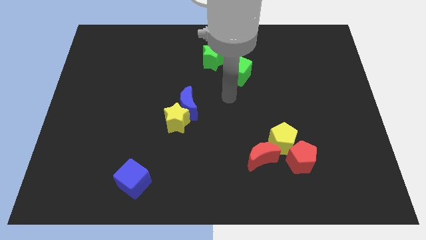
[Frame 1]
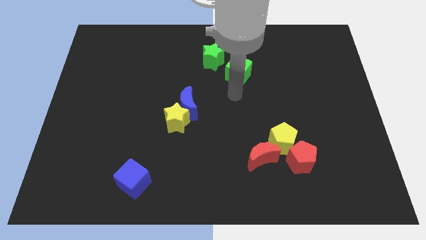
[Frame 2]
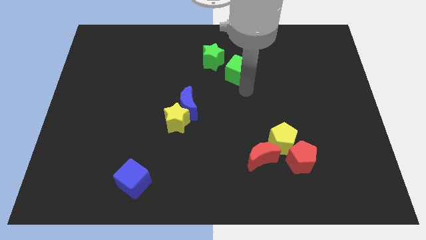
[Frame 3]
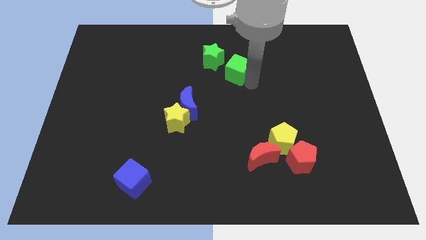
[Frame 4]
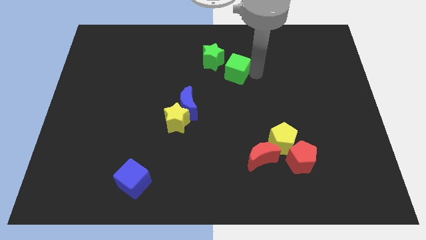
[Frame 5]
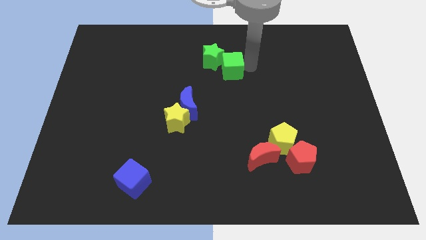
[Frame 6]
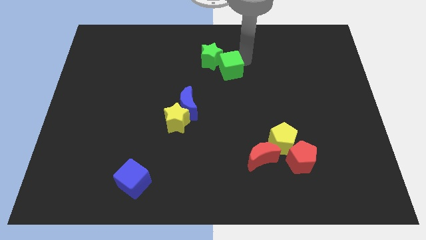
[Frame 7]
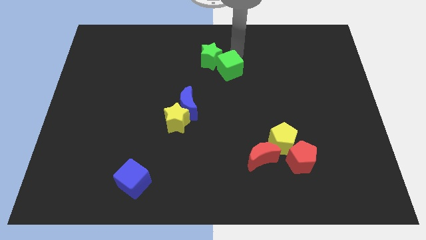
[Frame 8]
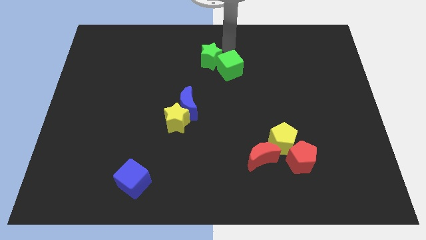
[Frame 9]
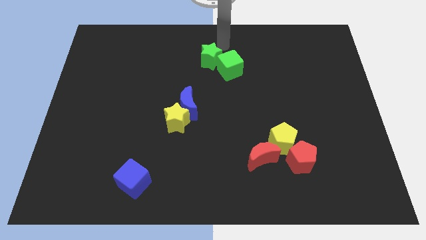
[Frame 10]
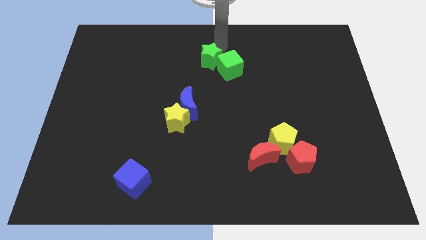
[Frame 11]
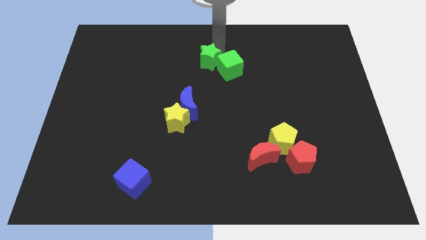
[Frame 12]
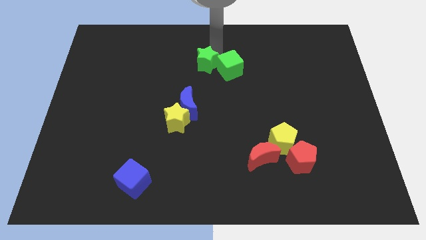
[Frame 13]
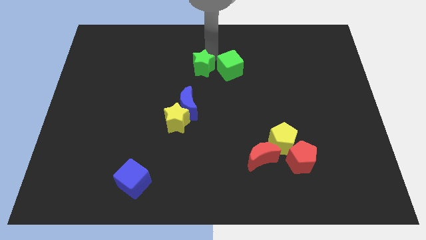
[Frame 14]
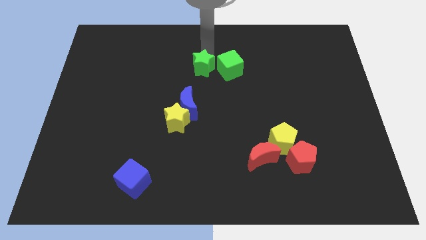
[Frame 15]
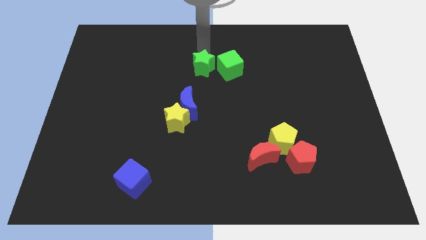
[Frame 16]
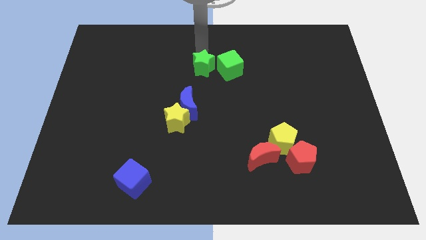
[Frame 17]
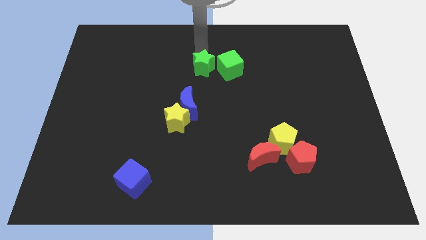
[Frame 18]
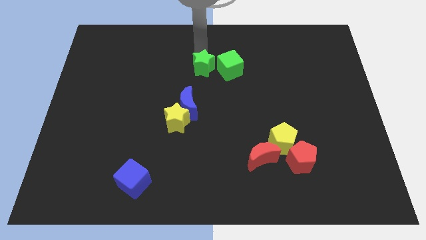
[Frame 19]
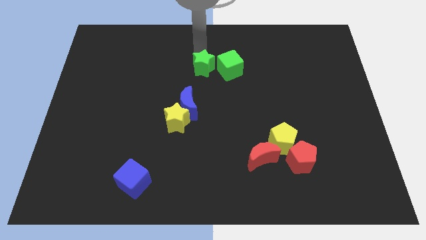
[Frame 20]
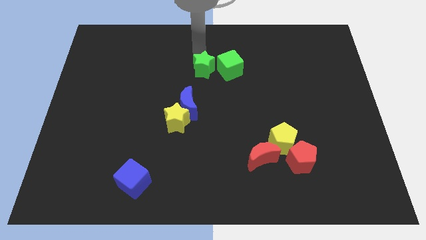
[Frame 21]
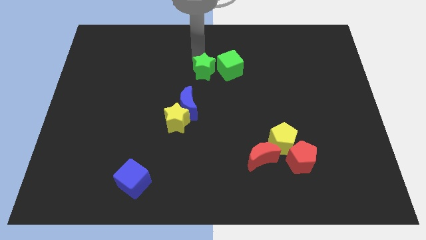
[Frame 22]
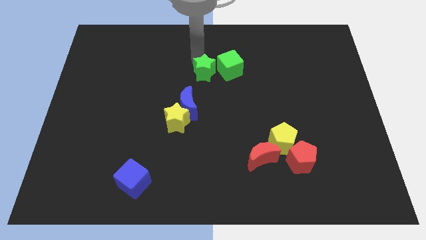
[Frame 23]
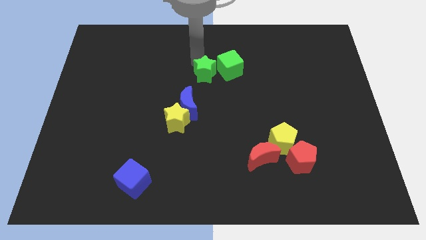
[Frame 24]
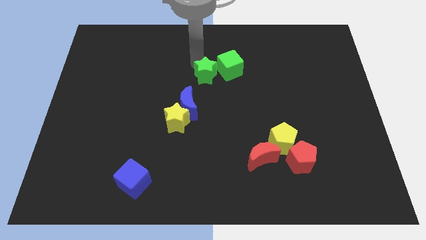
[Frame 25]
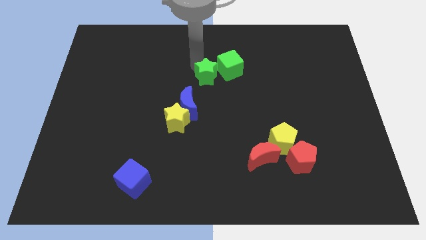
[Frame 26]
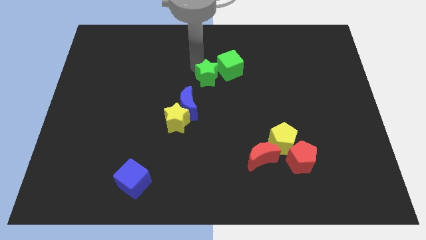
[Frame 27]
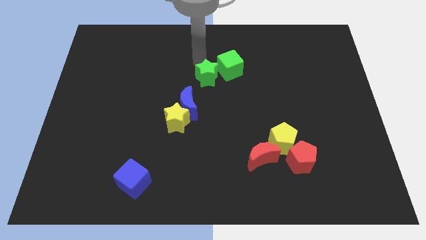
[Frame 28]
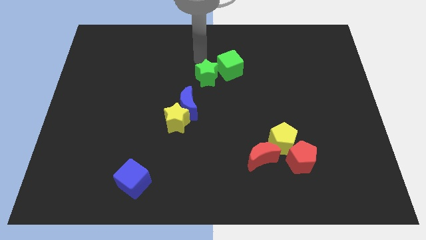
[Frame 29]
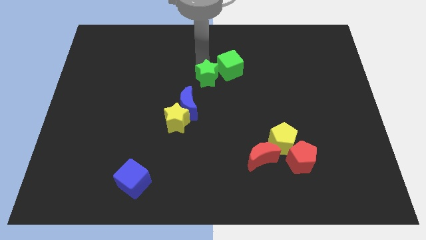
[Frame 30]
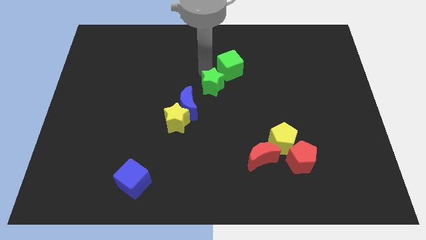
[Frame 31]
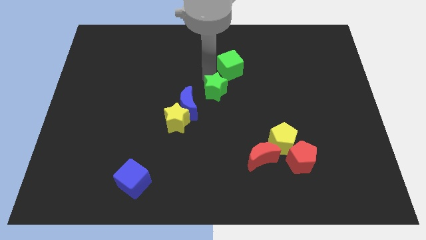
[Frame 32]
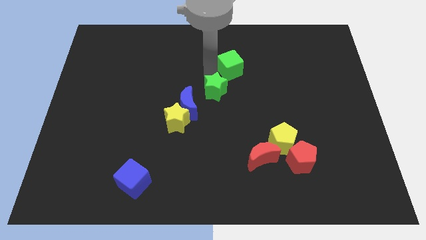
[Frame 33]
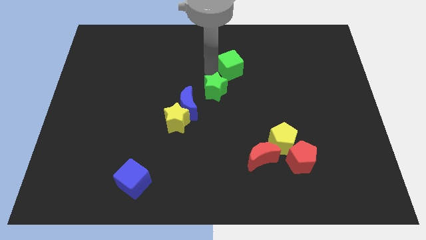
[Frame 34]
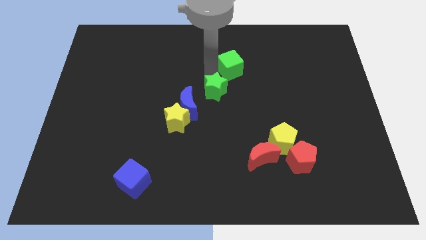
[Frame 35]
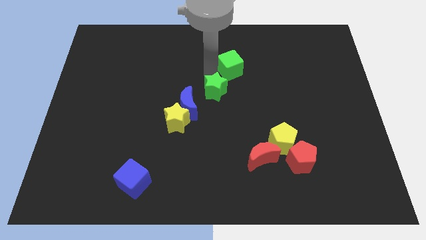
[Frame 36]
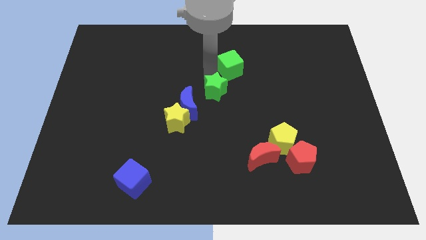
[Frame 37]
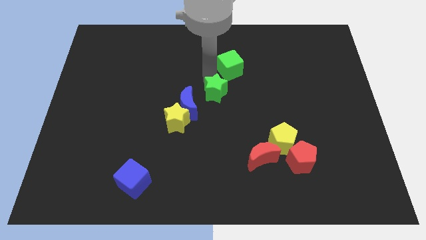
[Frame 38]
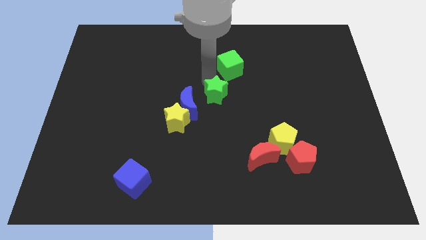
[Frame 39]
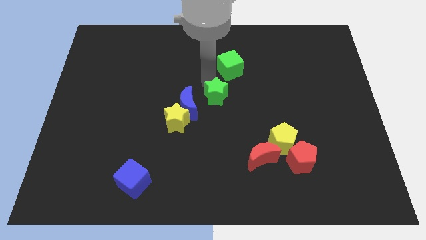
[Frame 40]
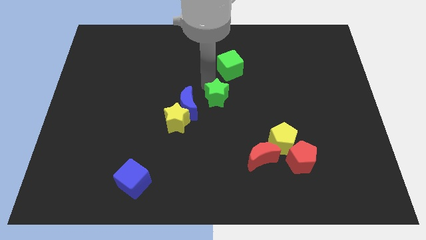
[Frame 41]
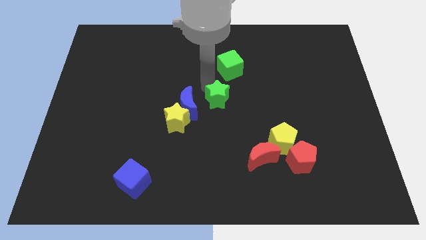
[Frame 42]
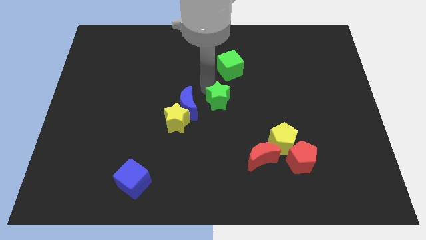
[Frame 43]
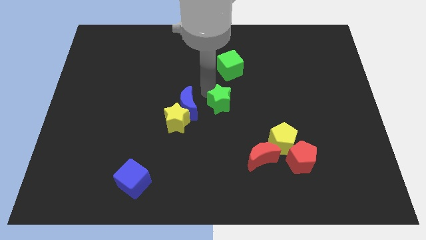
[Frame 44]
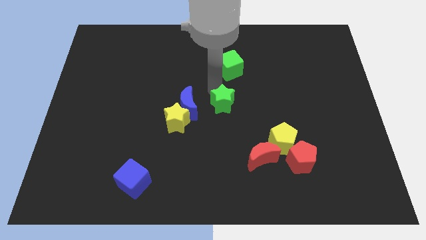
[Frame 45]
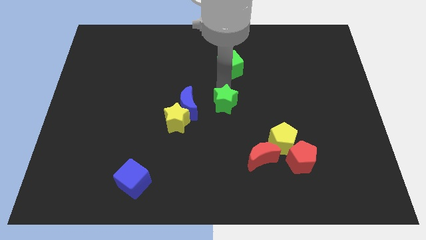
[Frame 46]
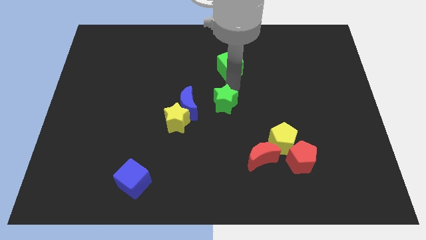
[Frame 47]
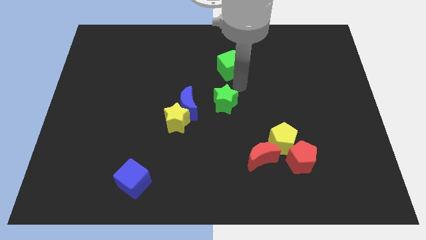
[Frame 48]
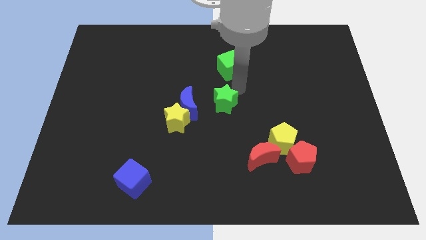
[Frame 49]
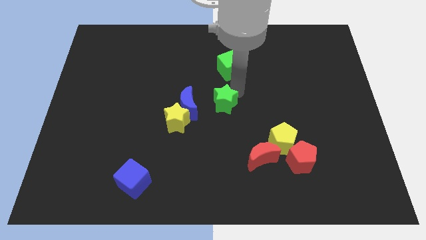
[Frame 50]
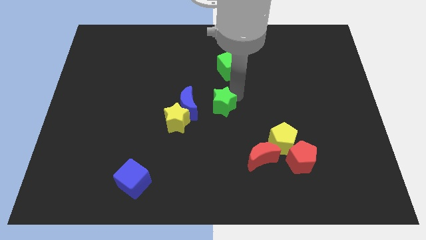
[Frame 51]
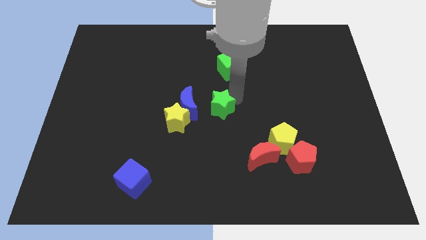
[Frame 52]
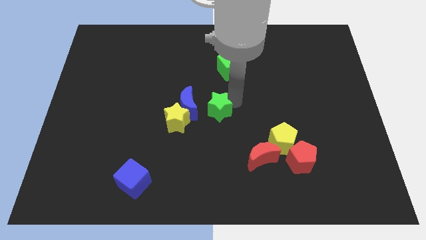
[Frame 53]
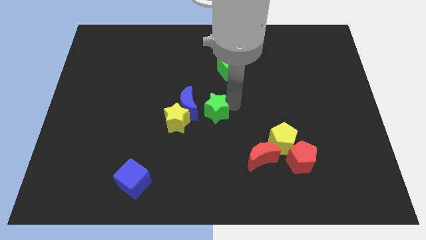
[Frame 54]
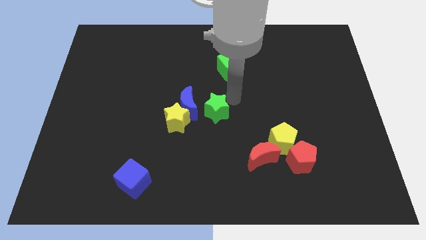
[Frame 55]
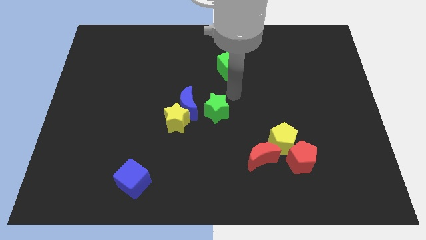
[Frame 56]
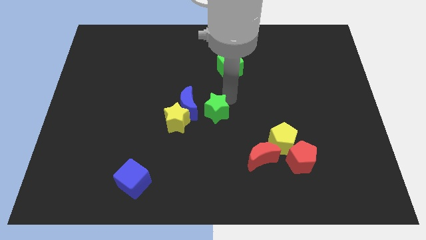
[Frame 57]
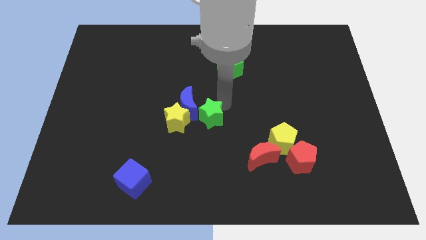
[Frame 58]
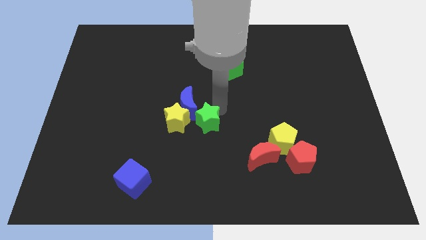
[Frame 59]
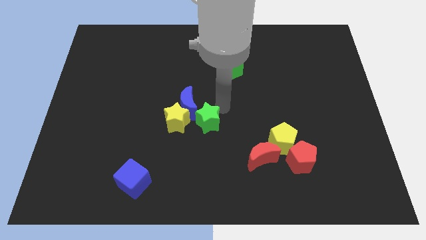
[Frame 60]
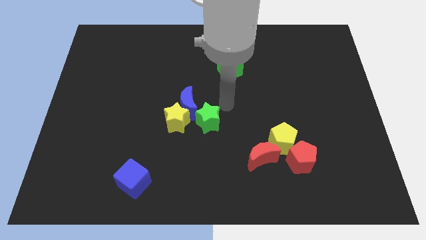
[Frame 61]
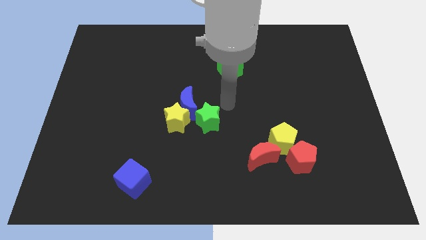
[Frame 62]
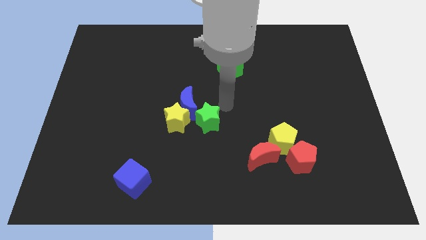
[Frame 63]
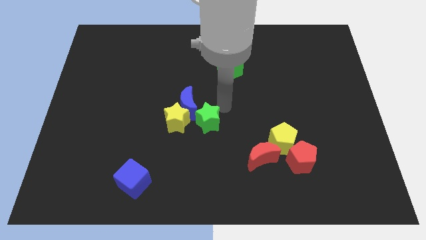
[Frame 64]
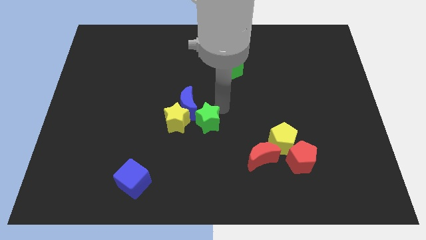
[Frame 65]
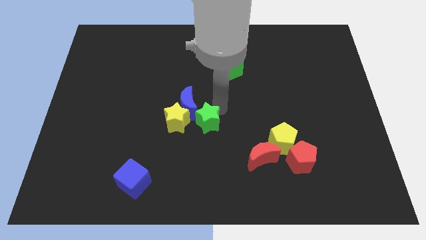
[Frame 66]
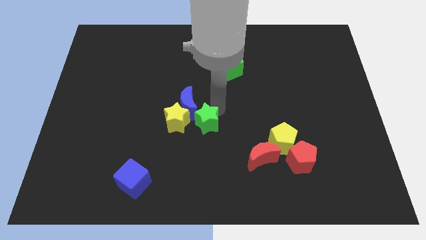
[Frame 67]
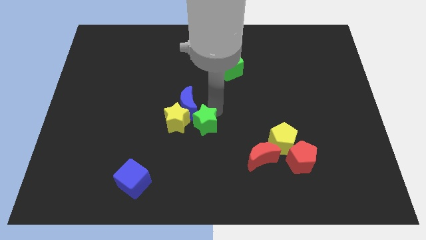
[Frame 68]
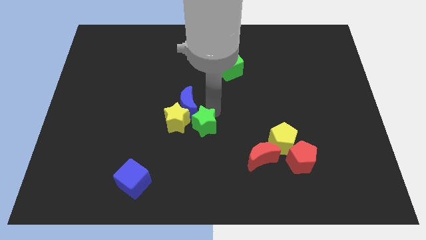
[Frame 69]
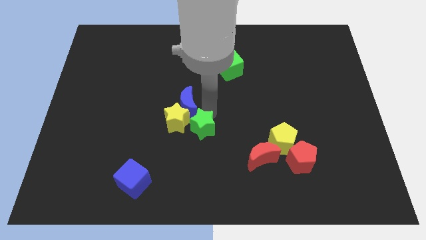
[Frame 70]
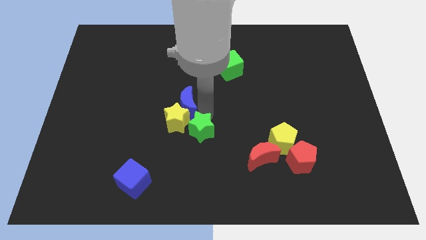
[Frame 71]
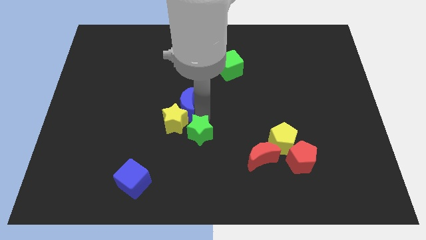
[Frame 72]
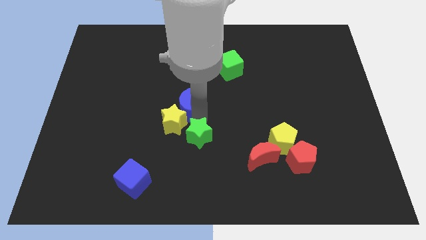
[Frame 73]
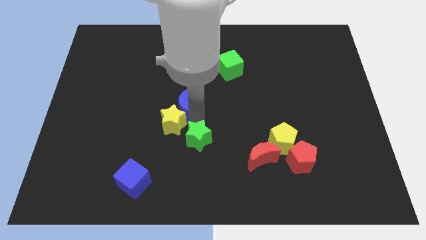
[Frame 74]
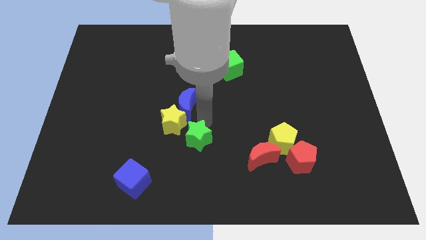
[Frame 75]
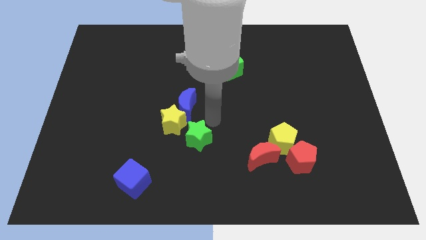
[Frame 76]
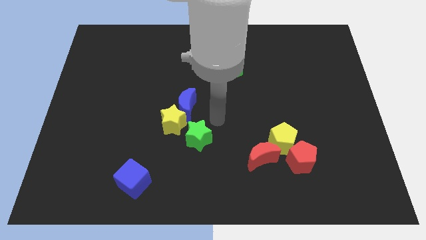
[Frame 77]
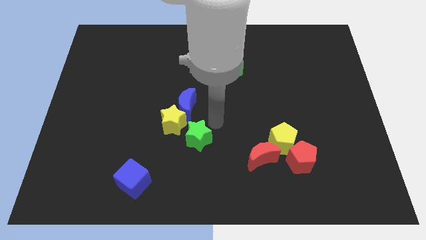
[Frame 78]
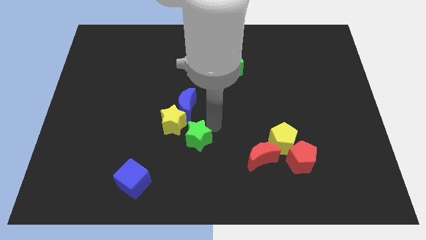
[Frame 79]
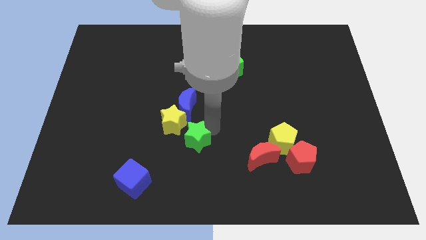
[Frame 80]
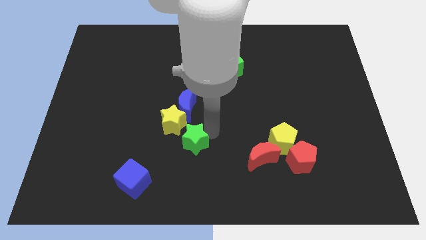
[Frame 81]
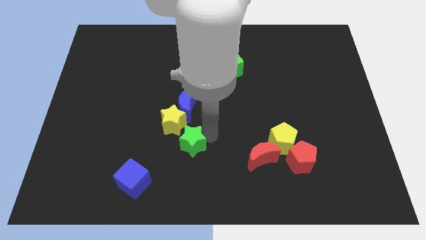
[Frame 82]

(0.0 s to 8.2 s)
put the green star below the yellow star

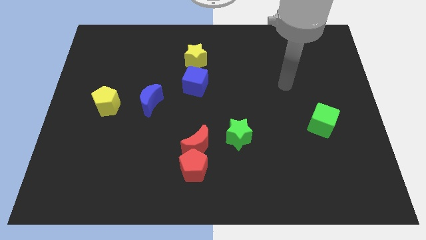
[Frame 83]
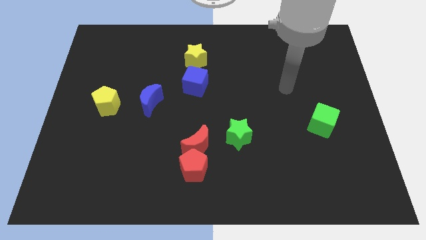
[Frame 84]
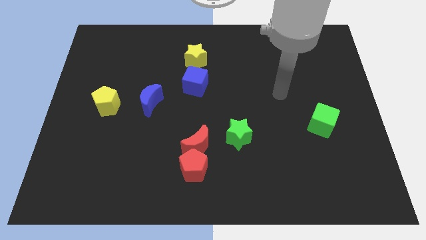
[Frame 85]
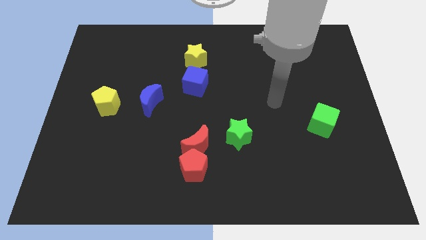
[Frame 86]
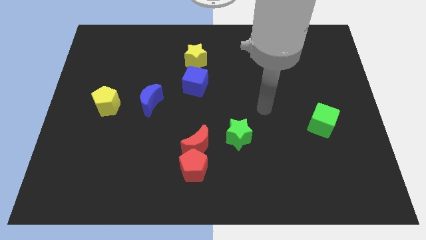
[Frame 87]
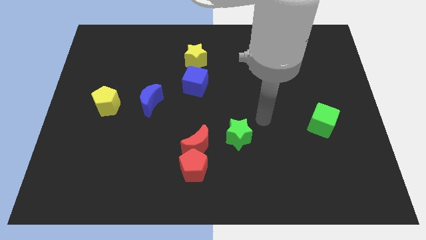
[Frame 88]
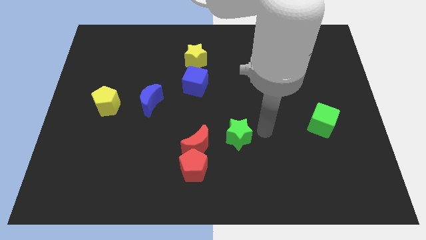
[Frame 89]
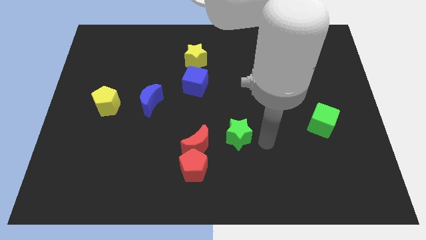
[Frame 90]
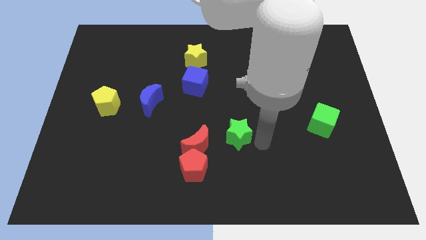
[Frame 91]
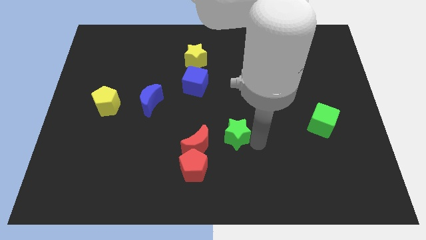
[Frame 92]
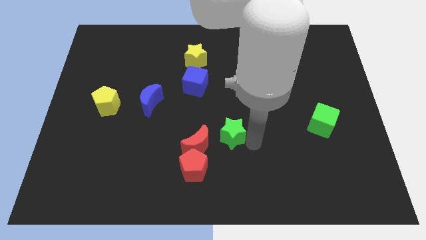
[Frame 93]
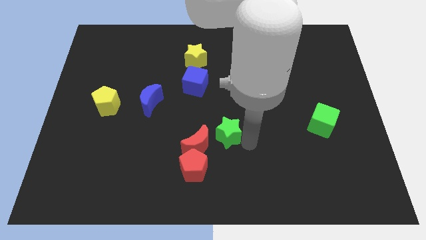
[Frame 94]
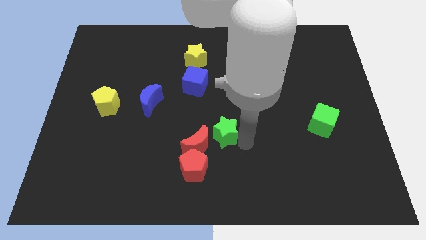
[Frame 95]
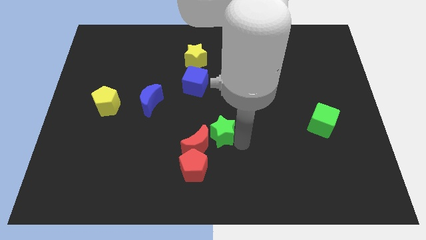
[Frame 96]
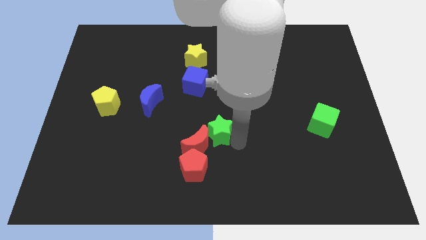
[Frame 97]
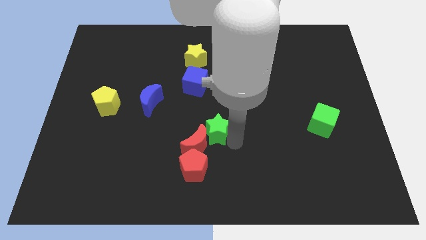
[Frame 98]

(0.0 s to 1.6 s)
move the green star to the top of the red pentagon
